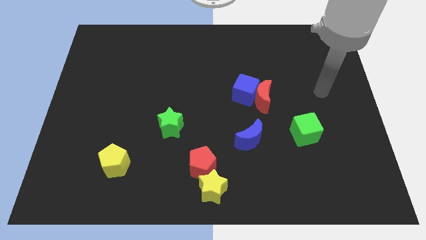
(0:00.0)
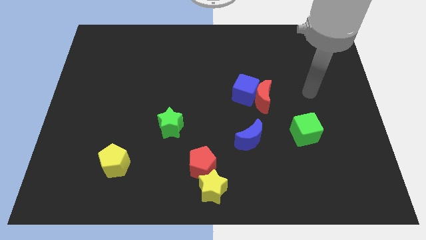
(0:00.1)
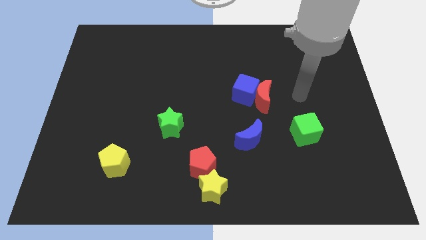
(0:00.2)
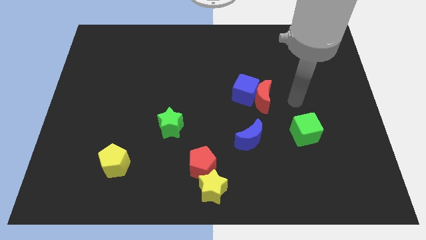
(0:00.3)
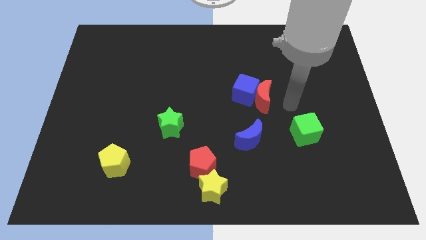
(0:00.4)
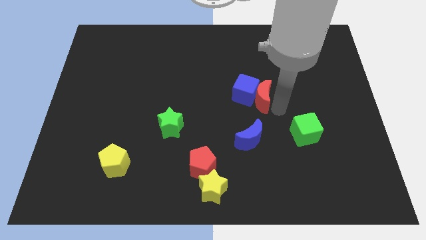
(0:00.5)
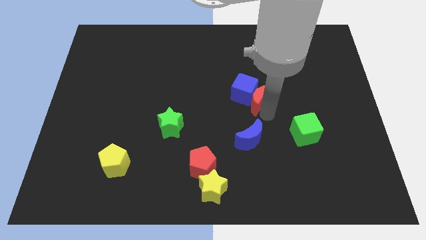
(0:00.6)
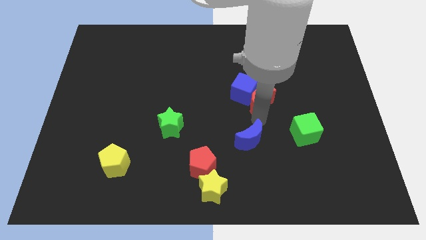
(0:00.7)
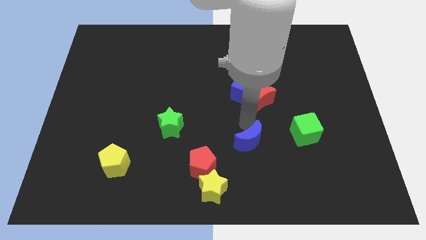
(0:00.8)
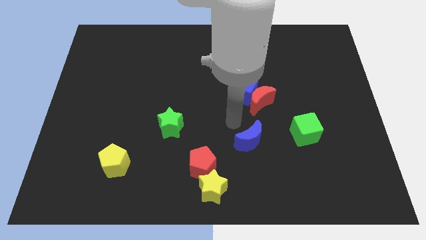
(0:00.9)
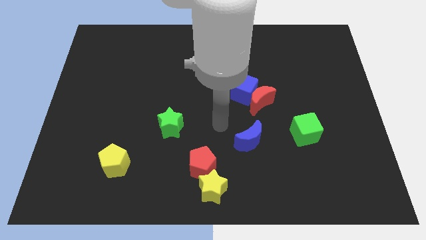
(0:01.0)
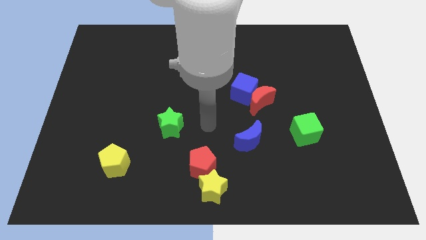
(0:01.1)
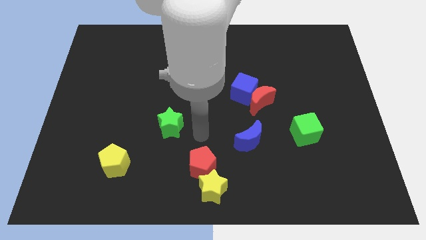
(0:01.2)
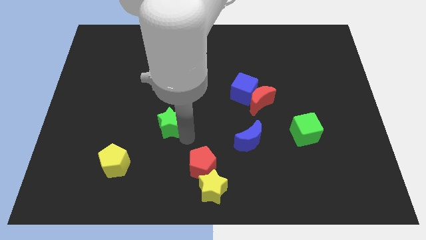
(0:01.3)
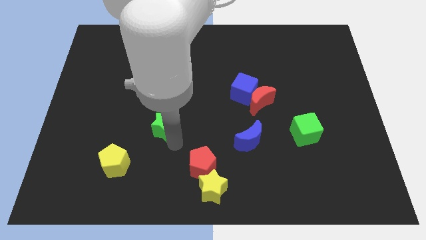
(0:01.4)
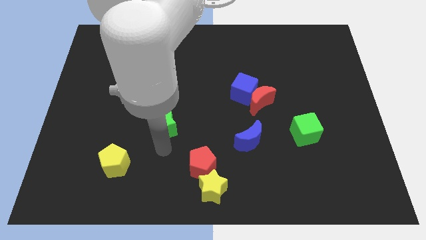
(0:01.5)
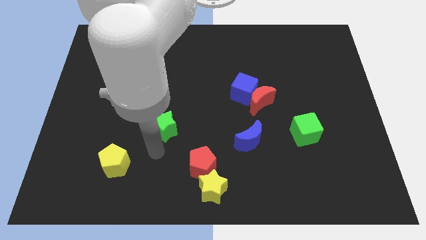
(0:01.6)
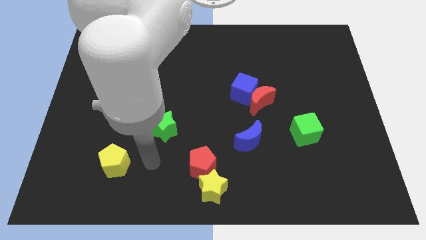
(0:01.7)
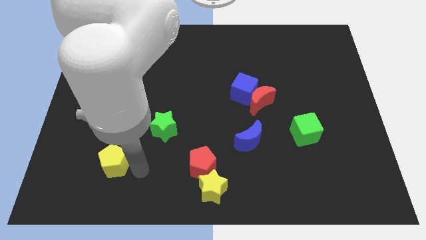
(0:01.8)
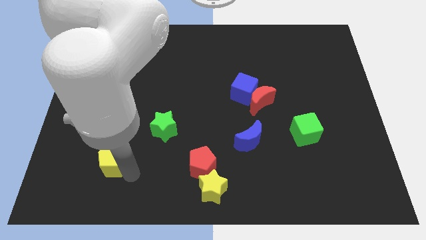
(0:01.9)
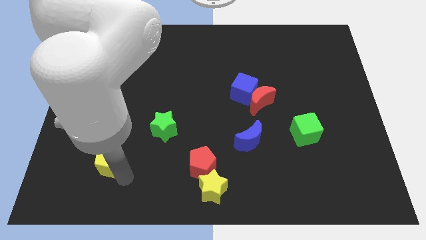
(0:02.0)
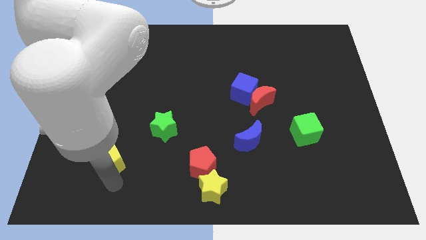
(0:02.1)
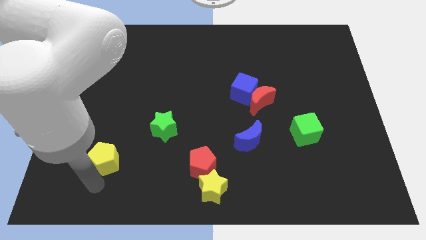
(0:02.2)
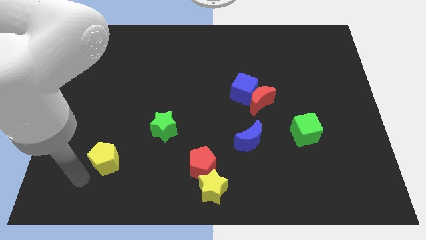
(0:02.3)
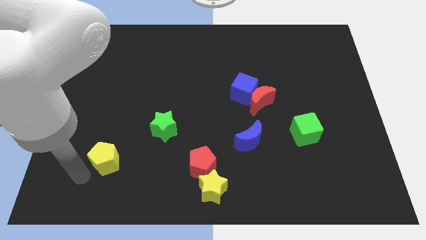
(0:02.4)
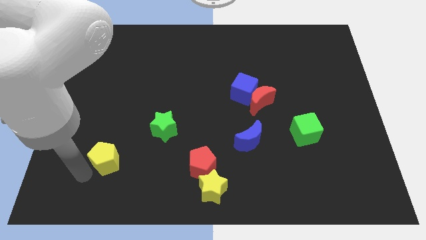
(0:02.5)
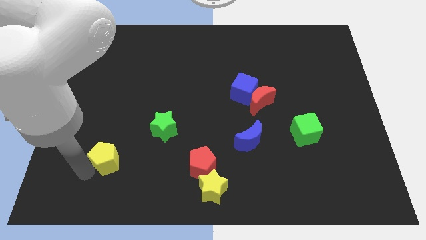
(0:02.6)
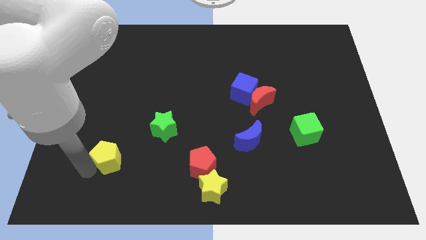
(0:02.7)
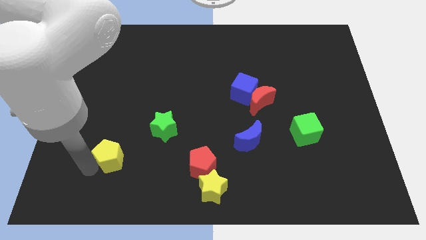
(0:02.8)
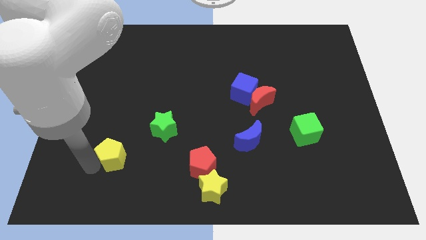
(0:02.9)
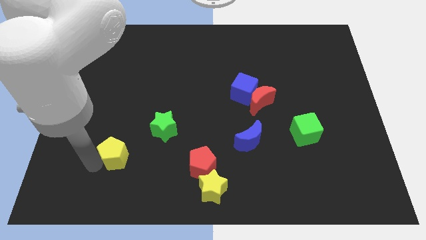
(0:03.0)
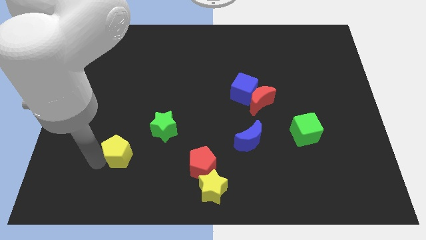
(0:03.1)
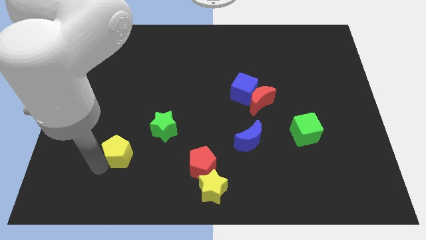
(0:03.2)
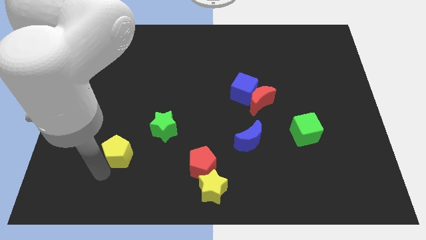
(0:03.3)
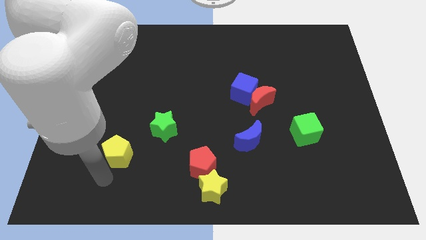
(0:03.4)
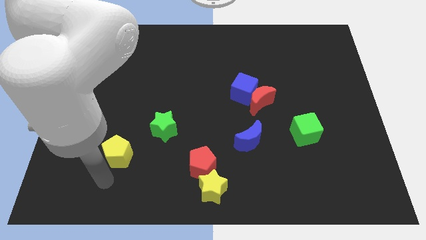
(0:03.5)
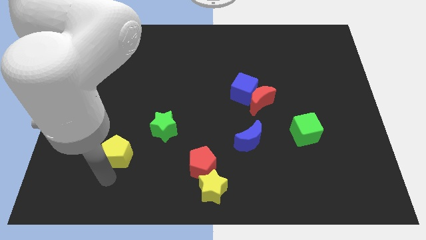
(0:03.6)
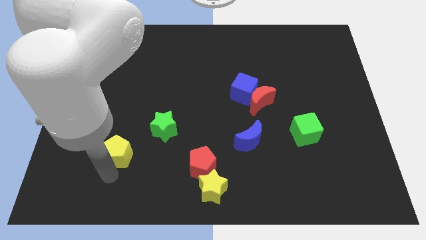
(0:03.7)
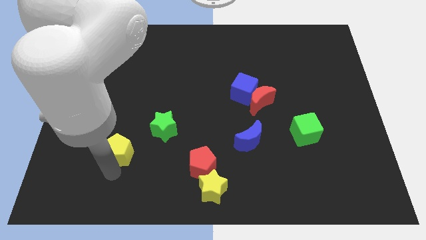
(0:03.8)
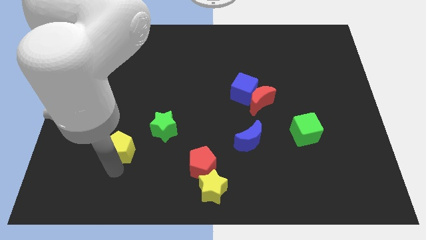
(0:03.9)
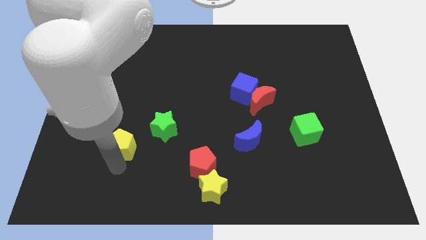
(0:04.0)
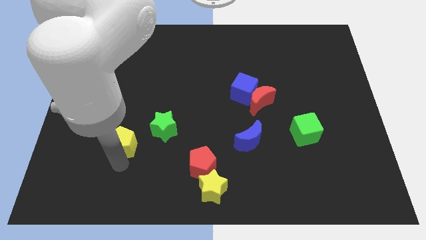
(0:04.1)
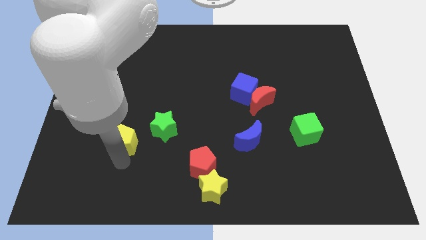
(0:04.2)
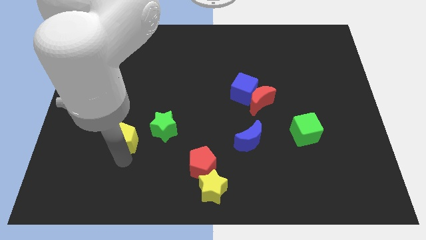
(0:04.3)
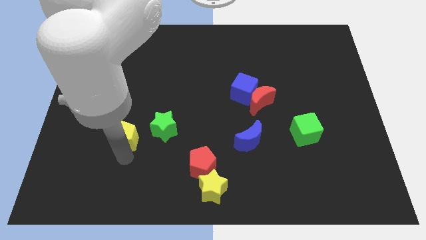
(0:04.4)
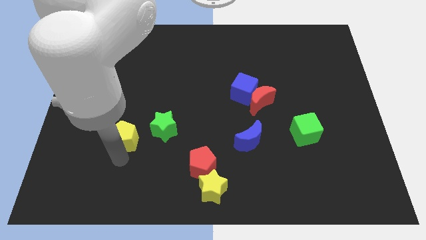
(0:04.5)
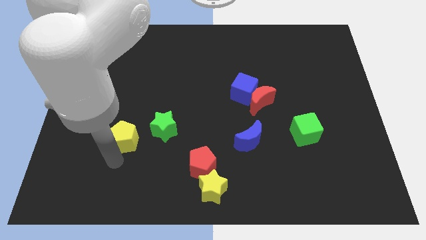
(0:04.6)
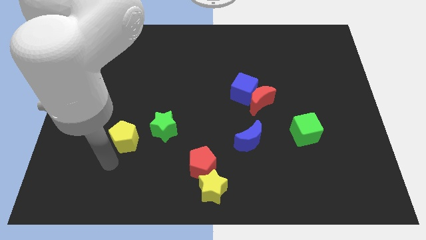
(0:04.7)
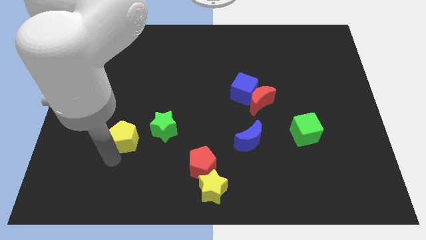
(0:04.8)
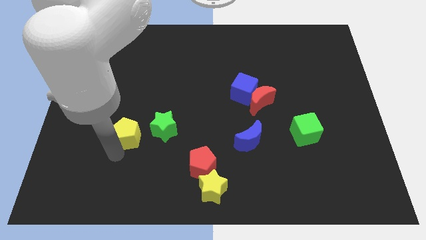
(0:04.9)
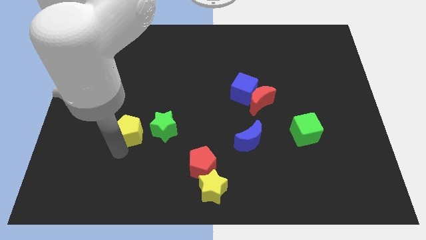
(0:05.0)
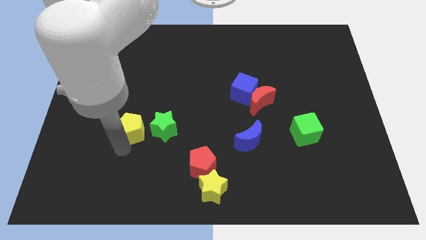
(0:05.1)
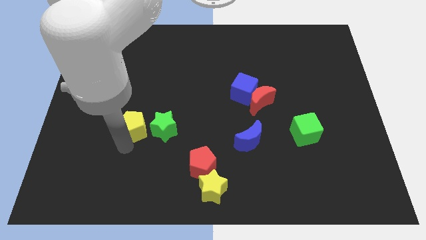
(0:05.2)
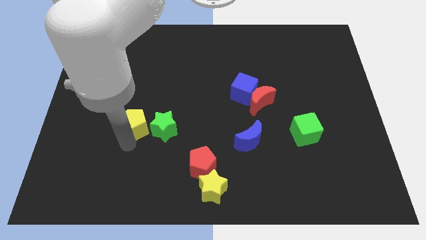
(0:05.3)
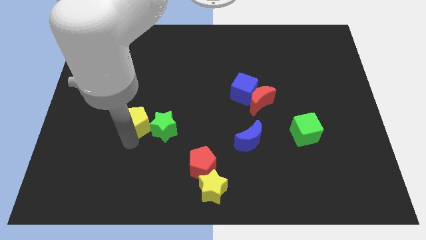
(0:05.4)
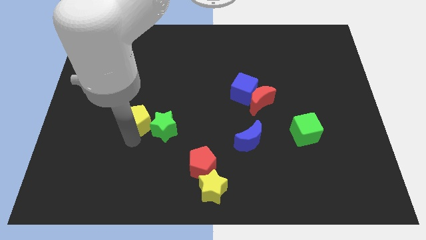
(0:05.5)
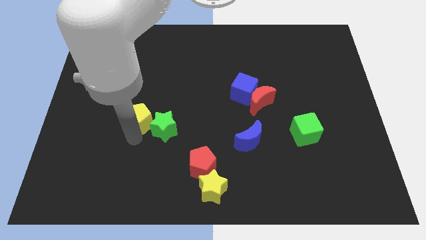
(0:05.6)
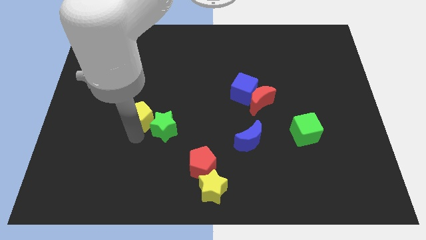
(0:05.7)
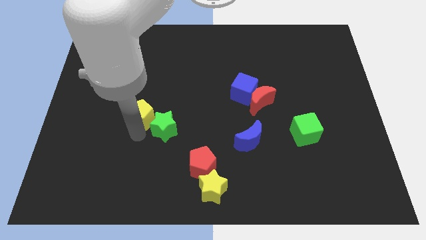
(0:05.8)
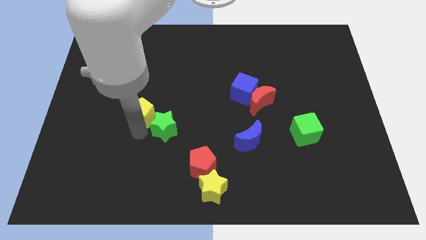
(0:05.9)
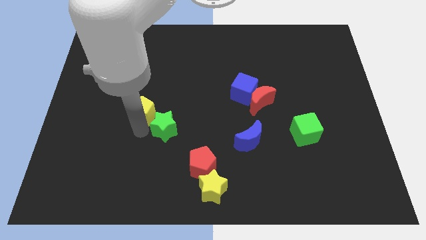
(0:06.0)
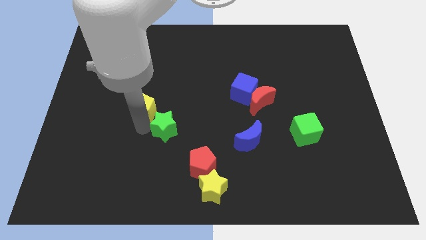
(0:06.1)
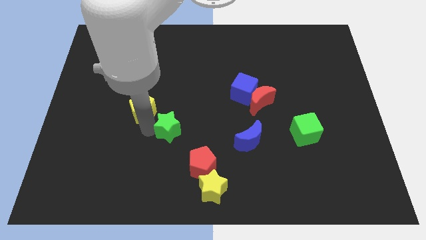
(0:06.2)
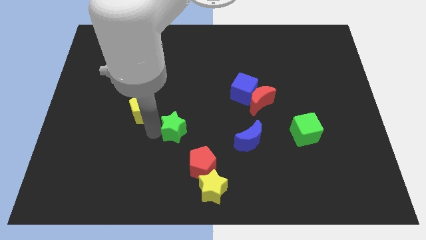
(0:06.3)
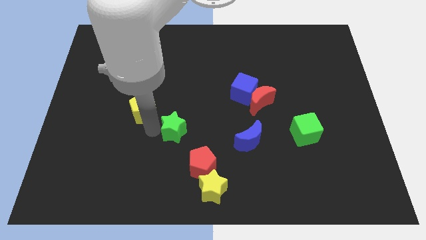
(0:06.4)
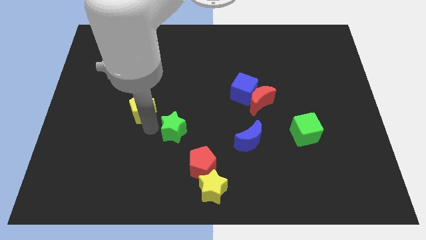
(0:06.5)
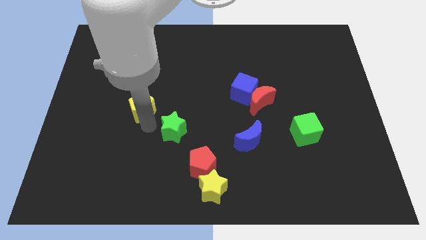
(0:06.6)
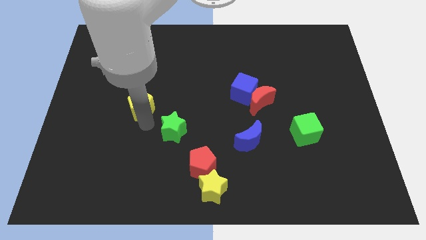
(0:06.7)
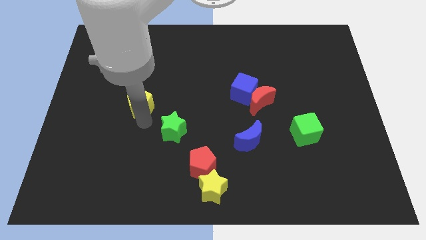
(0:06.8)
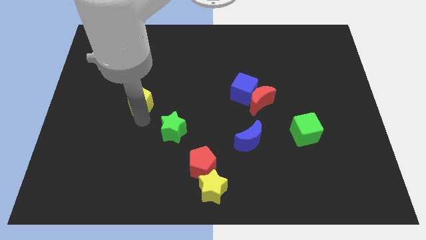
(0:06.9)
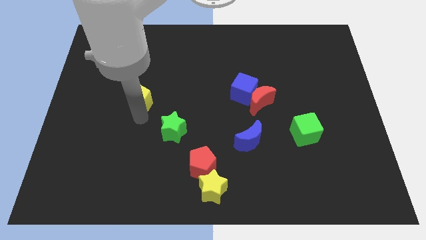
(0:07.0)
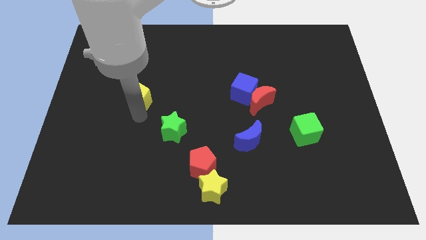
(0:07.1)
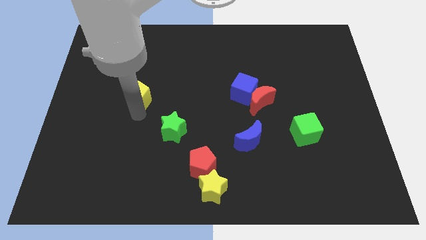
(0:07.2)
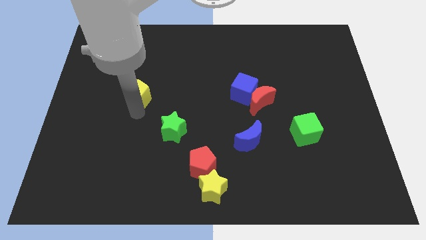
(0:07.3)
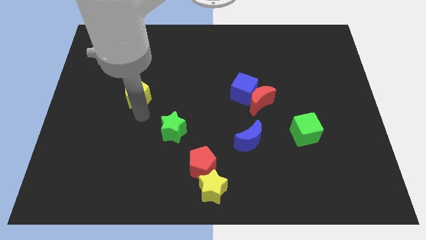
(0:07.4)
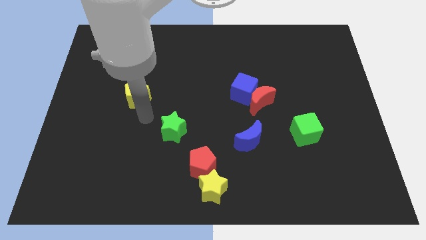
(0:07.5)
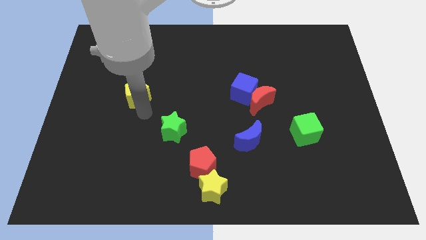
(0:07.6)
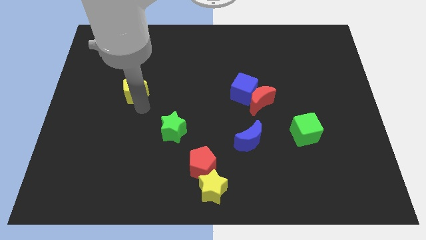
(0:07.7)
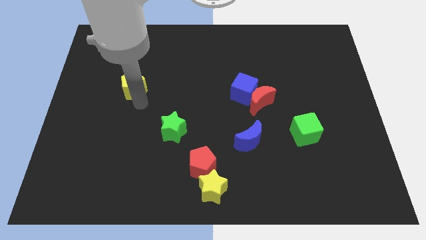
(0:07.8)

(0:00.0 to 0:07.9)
push the yellow pentagon up

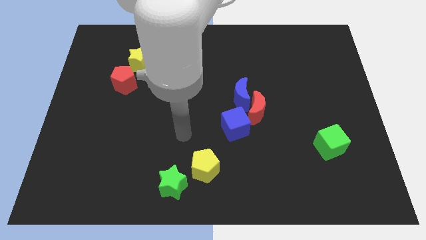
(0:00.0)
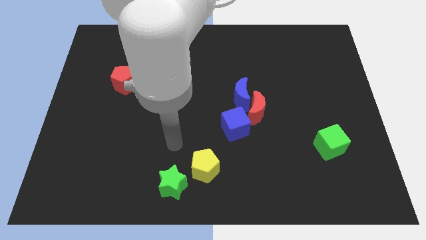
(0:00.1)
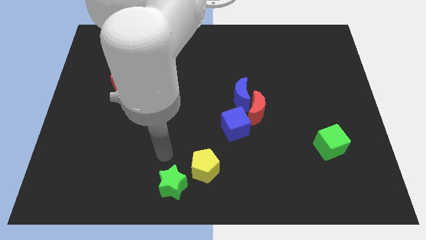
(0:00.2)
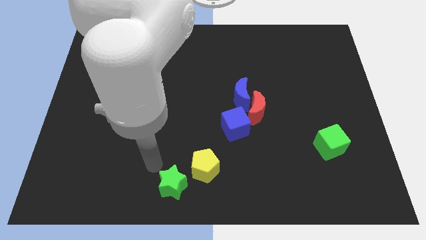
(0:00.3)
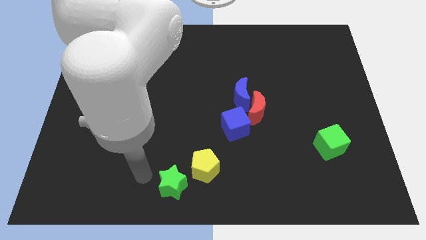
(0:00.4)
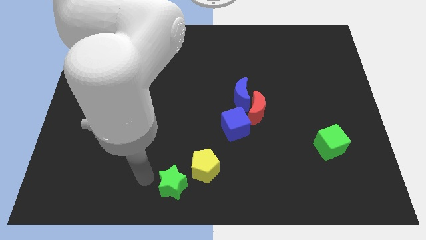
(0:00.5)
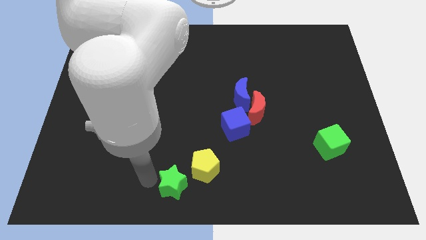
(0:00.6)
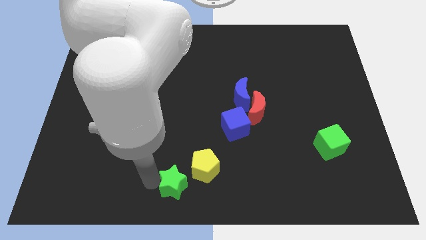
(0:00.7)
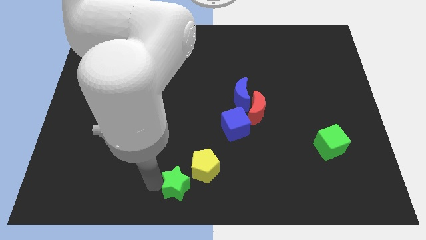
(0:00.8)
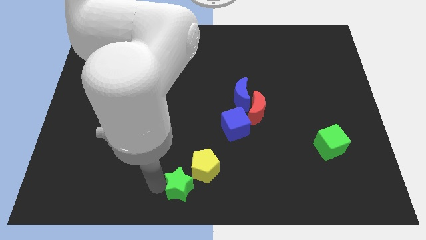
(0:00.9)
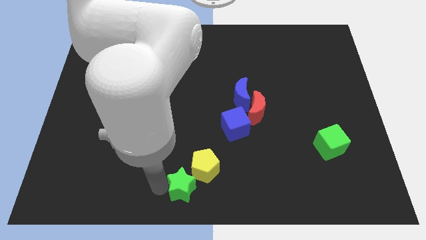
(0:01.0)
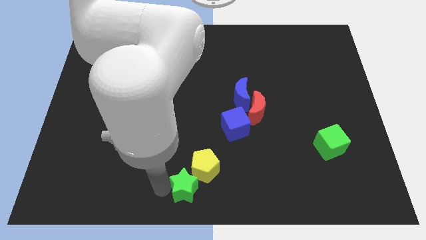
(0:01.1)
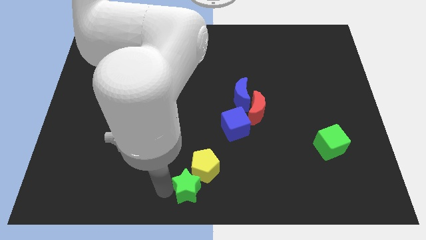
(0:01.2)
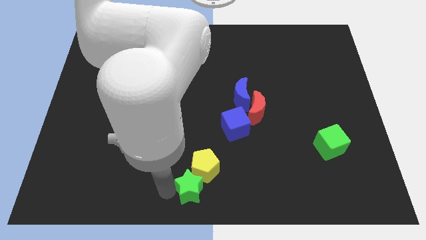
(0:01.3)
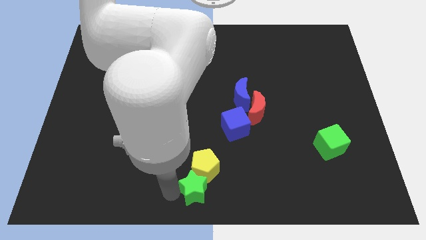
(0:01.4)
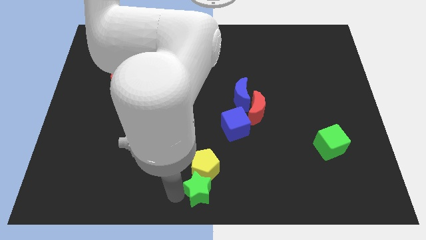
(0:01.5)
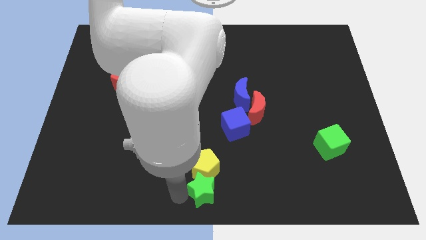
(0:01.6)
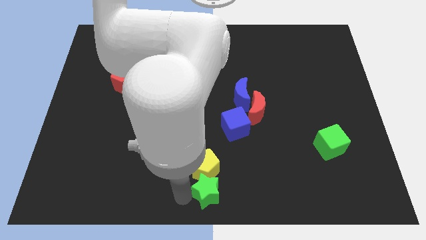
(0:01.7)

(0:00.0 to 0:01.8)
slide the green star to the right a bit
